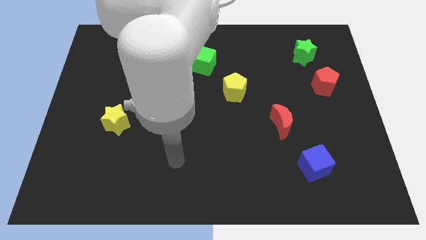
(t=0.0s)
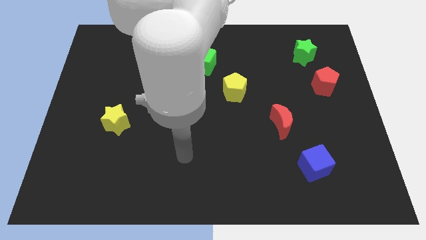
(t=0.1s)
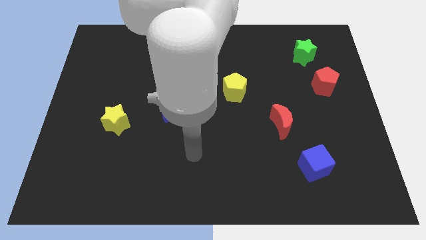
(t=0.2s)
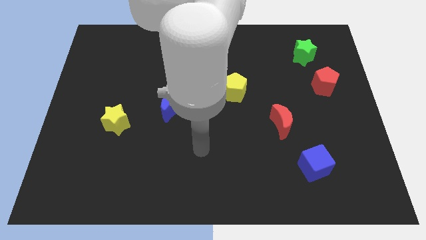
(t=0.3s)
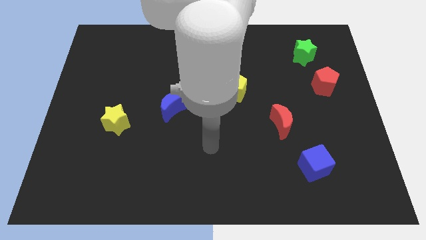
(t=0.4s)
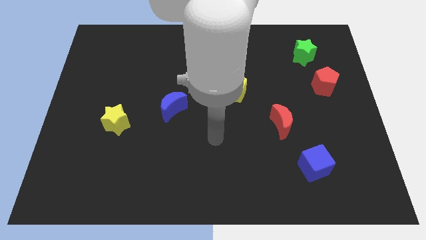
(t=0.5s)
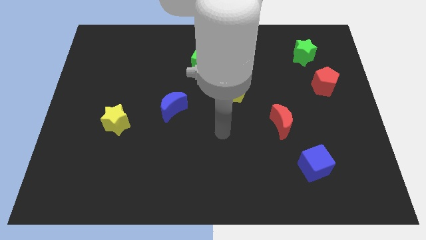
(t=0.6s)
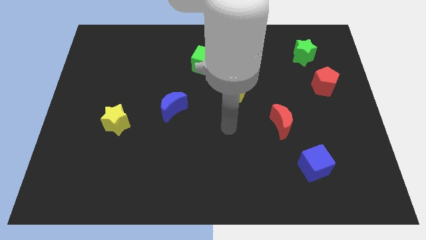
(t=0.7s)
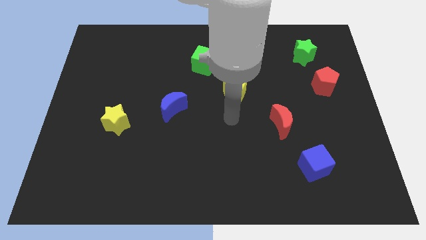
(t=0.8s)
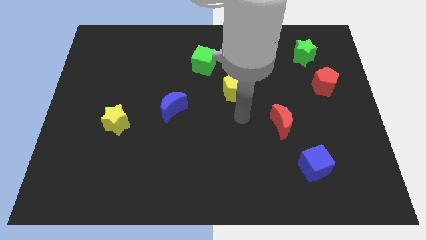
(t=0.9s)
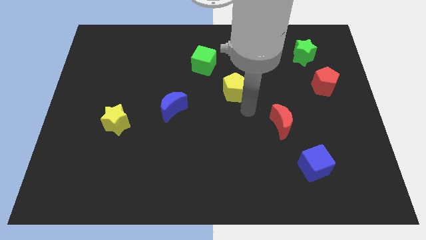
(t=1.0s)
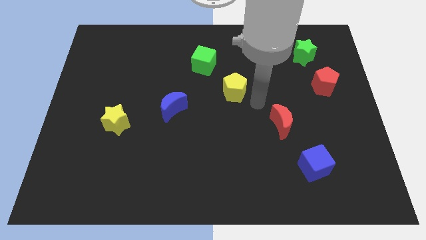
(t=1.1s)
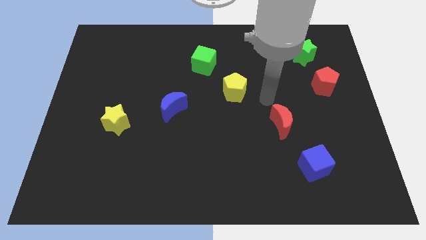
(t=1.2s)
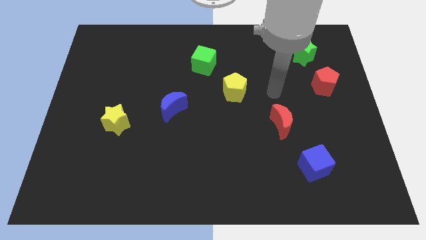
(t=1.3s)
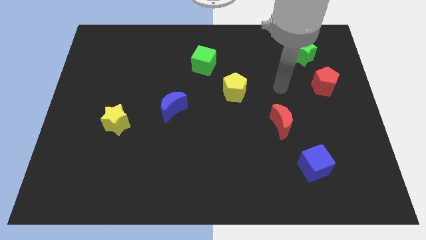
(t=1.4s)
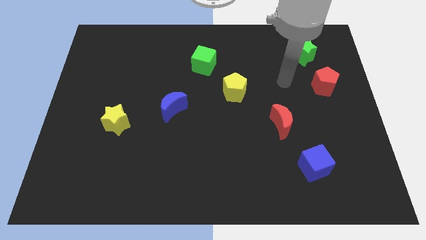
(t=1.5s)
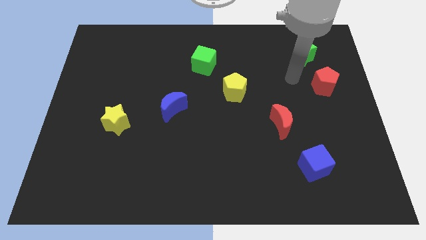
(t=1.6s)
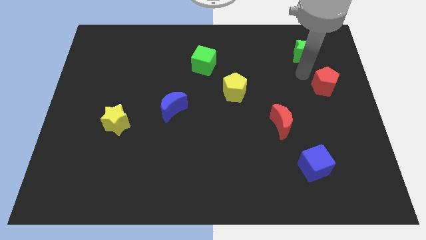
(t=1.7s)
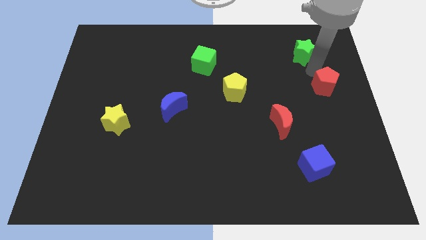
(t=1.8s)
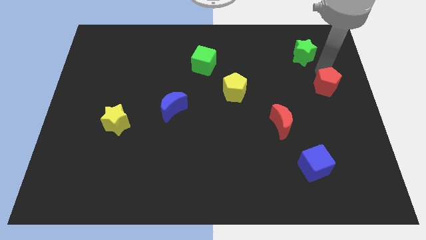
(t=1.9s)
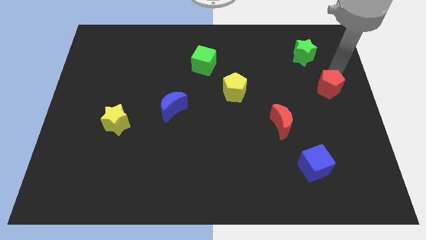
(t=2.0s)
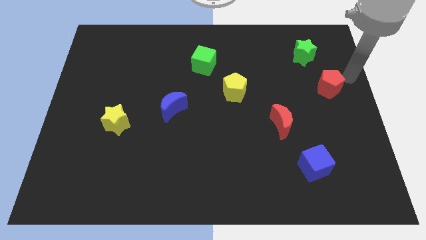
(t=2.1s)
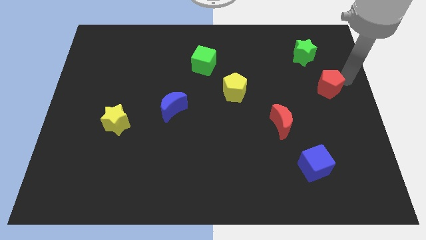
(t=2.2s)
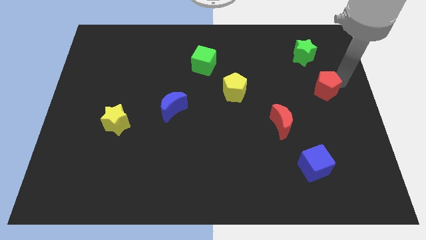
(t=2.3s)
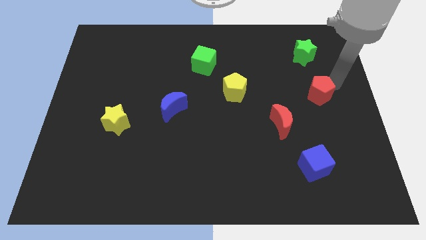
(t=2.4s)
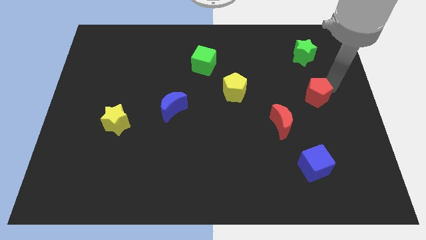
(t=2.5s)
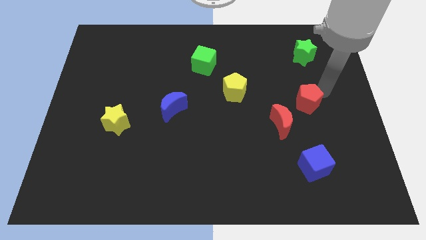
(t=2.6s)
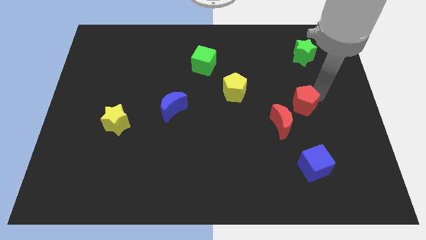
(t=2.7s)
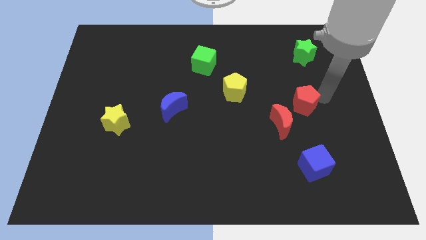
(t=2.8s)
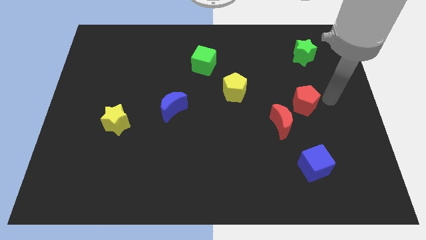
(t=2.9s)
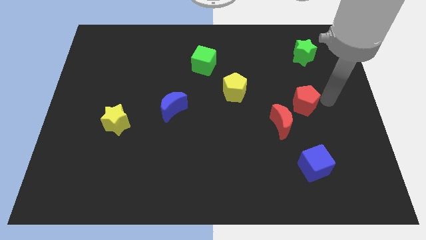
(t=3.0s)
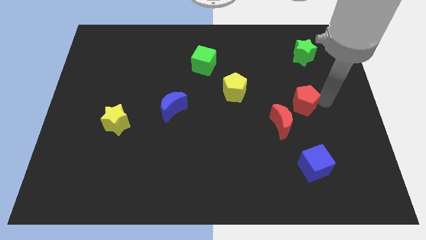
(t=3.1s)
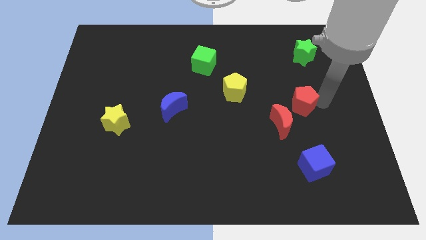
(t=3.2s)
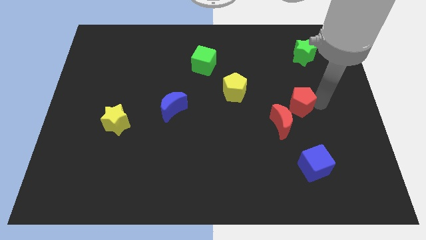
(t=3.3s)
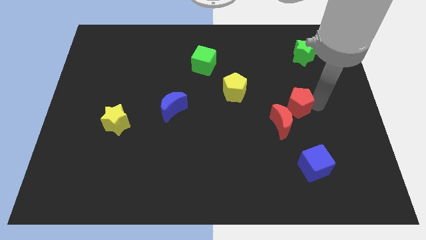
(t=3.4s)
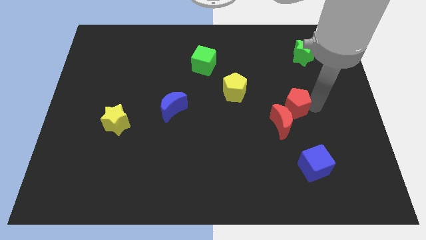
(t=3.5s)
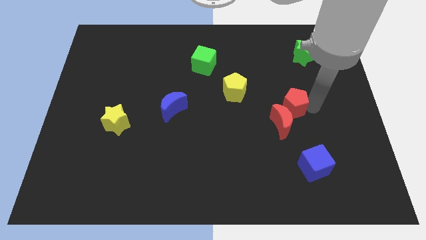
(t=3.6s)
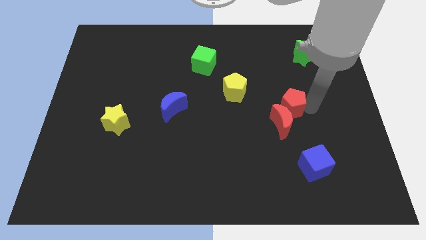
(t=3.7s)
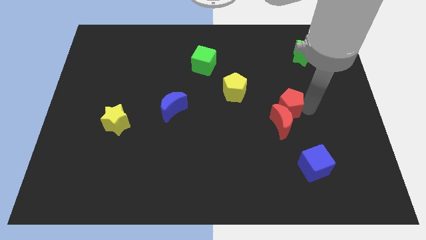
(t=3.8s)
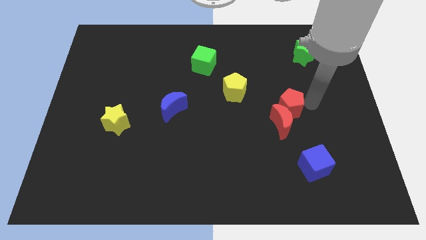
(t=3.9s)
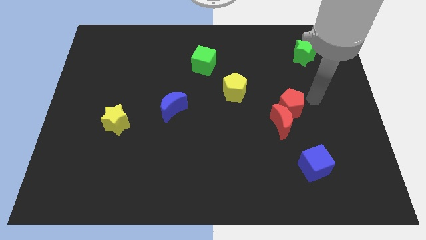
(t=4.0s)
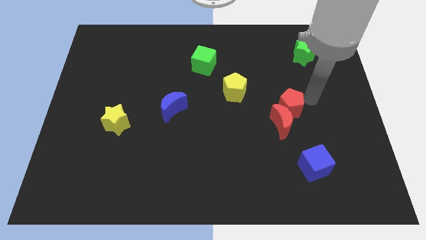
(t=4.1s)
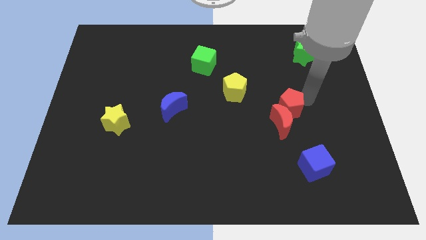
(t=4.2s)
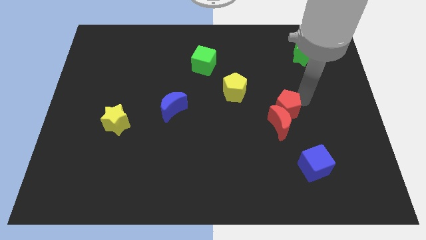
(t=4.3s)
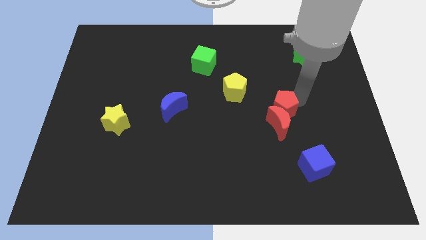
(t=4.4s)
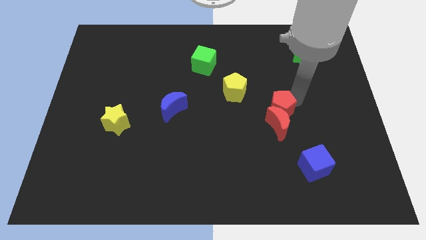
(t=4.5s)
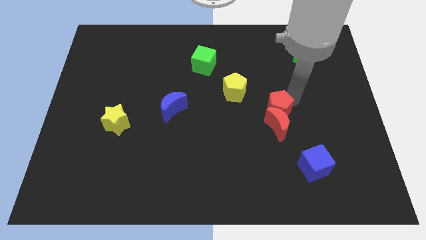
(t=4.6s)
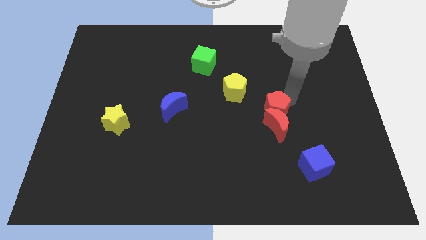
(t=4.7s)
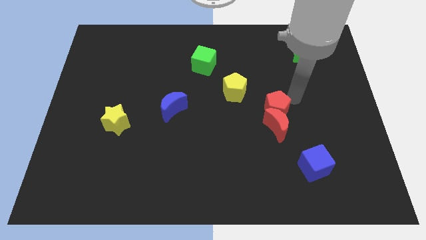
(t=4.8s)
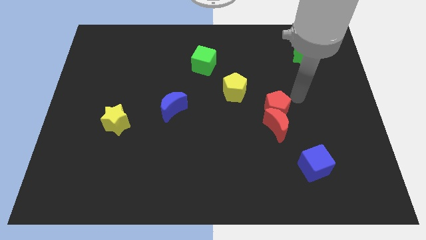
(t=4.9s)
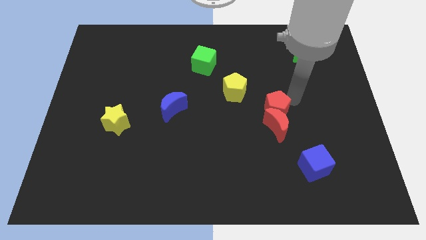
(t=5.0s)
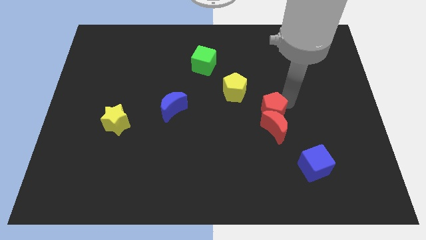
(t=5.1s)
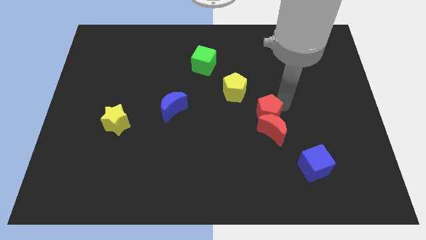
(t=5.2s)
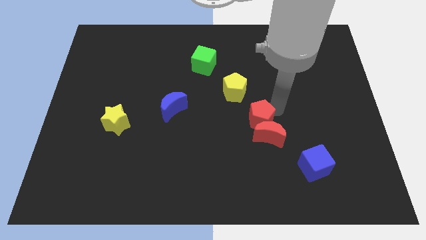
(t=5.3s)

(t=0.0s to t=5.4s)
slide the red pentagon to the middle of the board

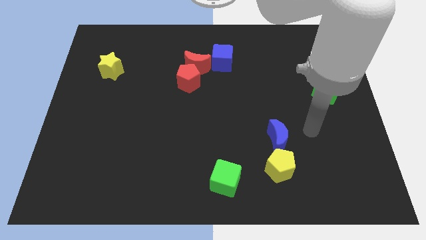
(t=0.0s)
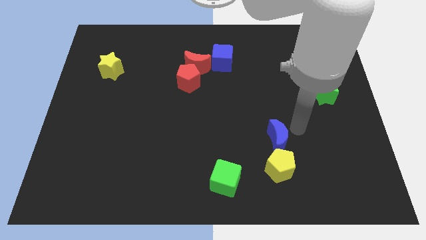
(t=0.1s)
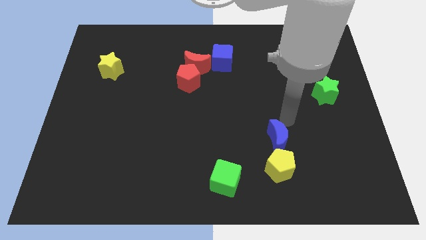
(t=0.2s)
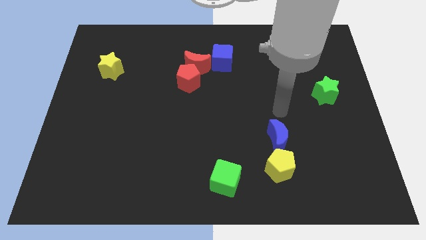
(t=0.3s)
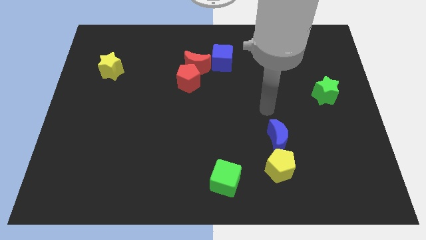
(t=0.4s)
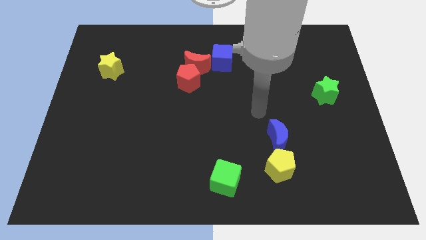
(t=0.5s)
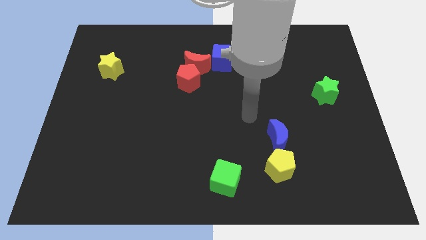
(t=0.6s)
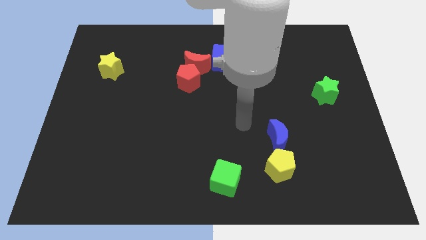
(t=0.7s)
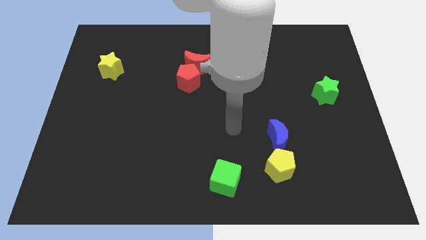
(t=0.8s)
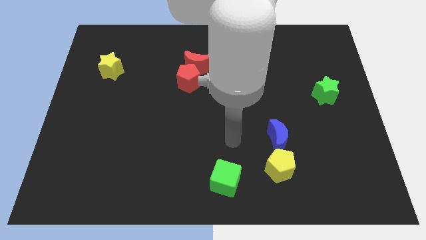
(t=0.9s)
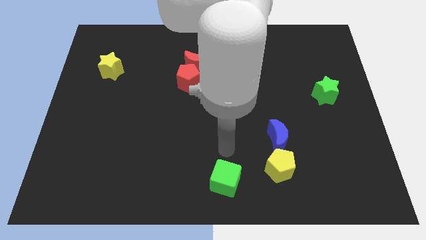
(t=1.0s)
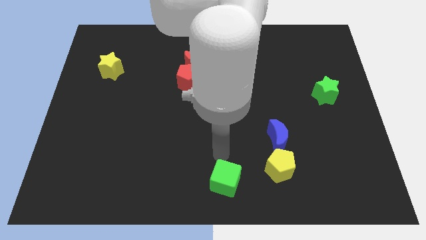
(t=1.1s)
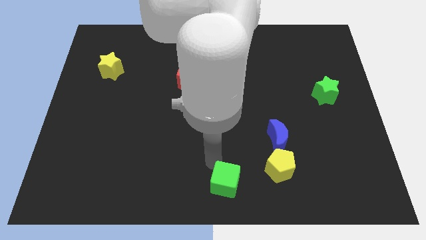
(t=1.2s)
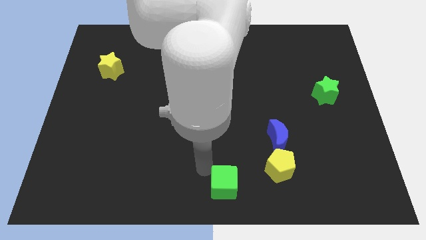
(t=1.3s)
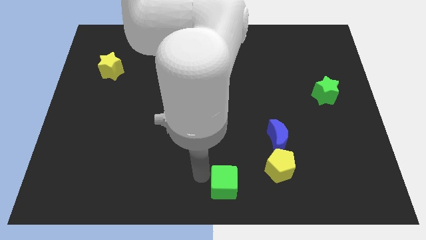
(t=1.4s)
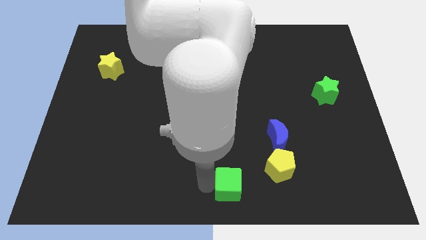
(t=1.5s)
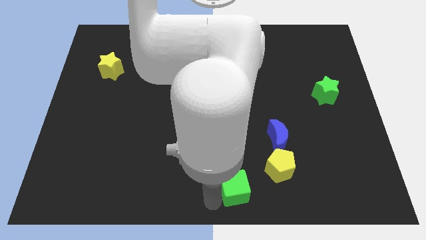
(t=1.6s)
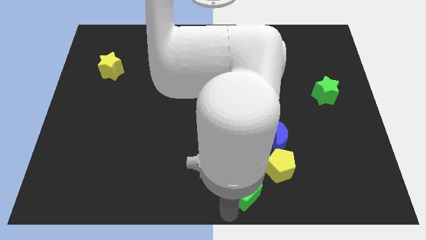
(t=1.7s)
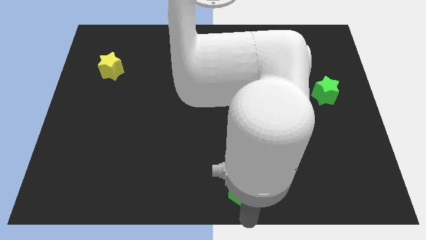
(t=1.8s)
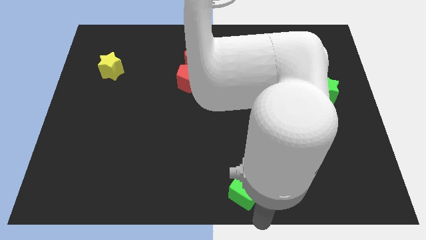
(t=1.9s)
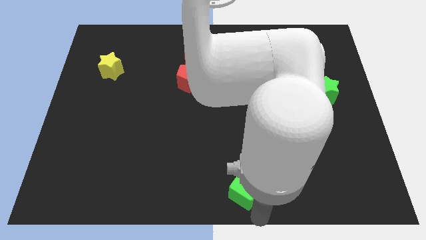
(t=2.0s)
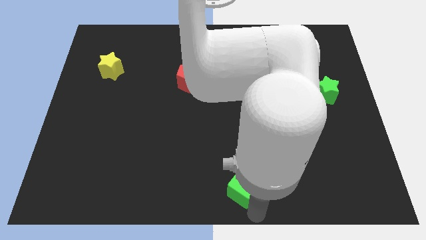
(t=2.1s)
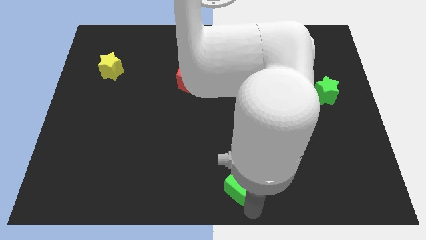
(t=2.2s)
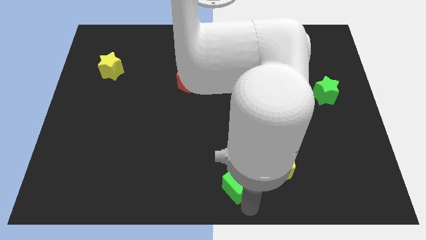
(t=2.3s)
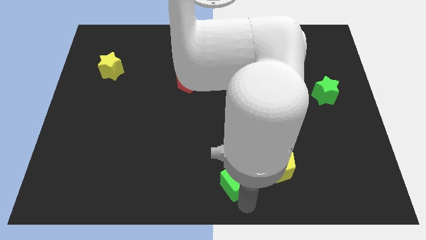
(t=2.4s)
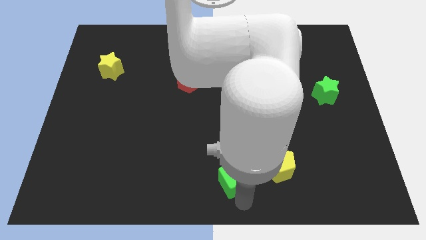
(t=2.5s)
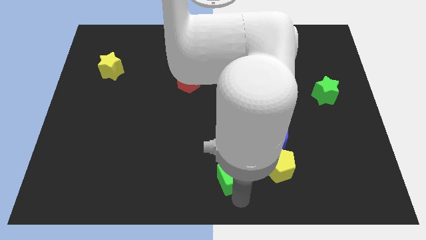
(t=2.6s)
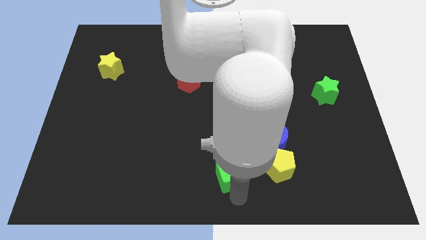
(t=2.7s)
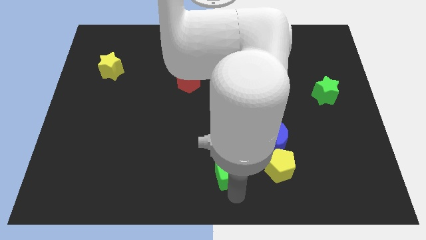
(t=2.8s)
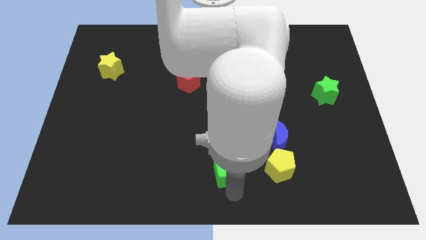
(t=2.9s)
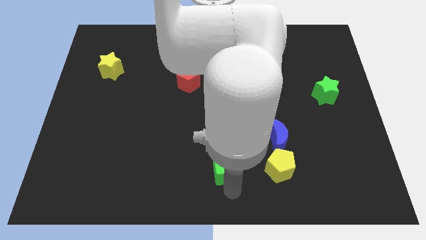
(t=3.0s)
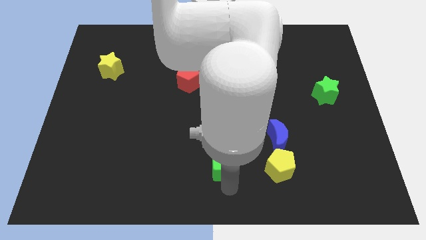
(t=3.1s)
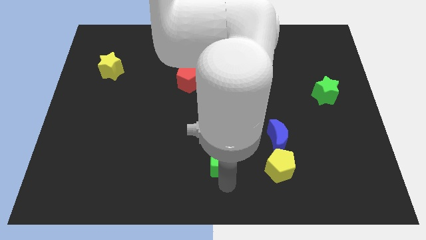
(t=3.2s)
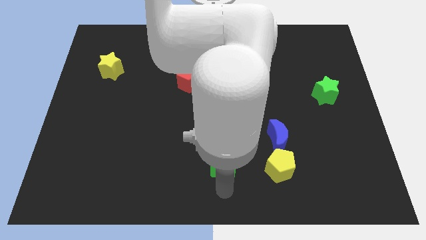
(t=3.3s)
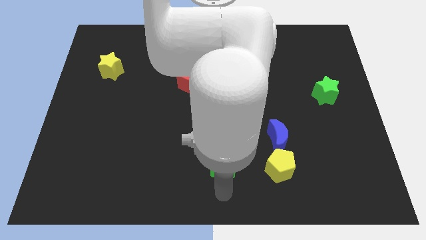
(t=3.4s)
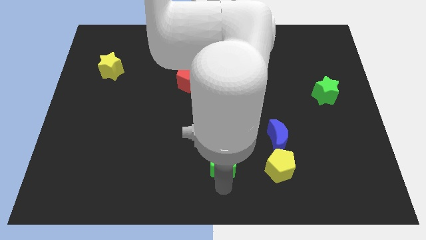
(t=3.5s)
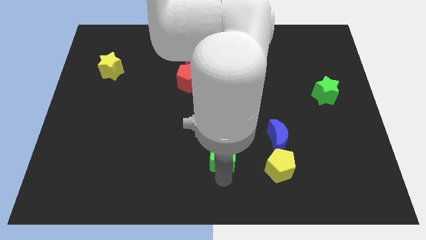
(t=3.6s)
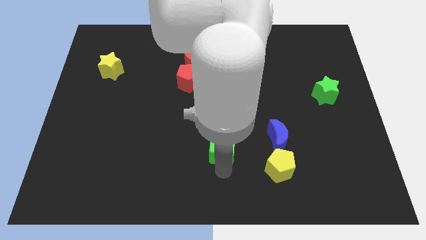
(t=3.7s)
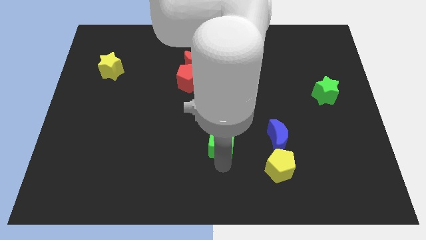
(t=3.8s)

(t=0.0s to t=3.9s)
push the green cube to the middle
